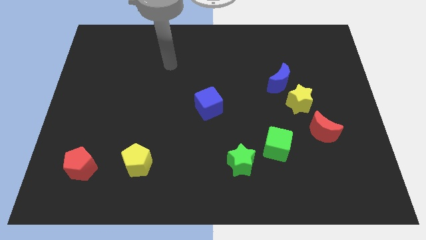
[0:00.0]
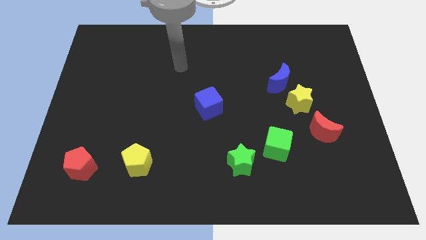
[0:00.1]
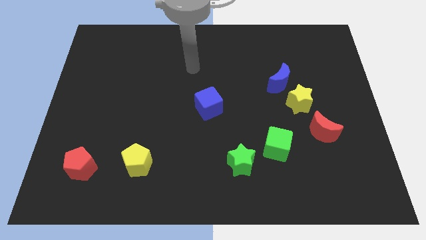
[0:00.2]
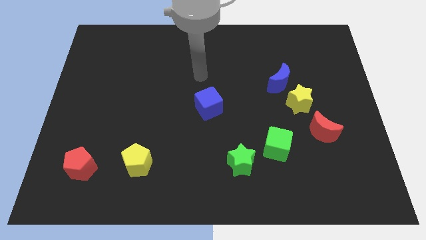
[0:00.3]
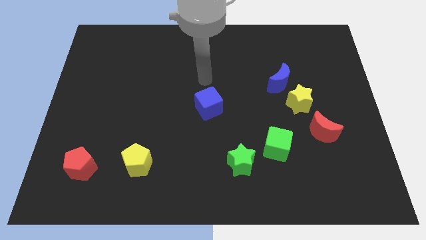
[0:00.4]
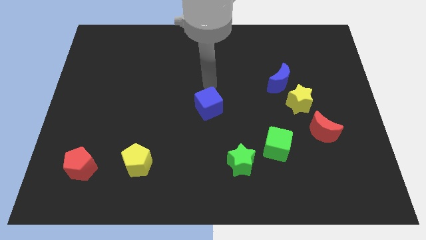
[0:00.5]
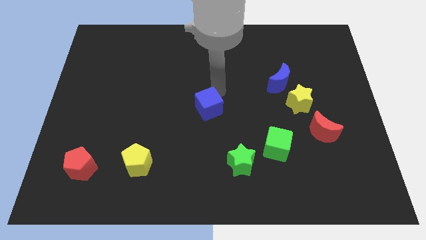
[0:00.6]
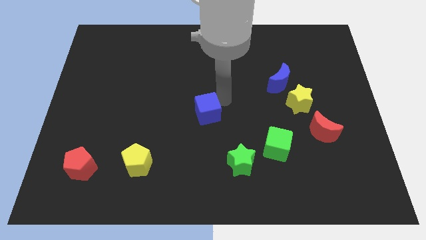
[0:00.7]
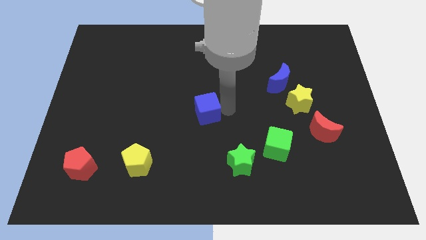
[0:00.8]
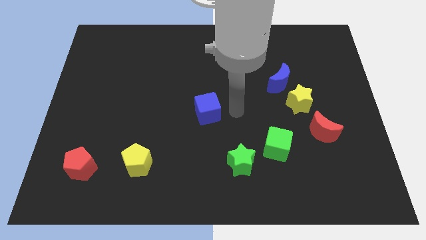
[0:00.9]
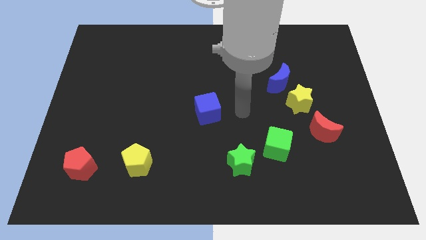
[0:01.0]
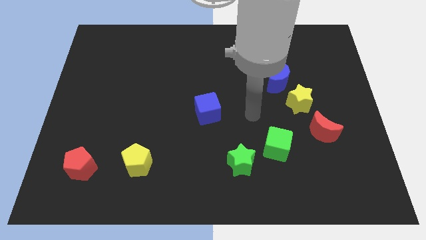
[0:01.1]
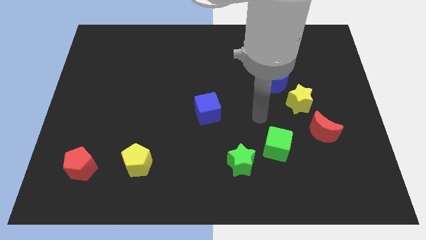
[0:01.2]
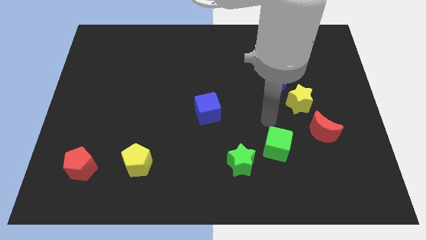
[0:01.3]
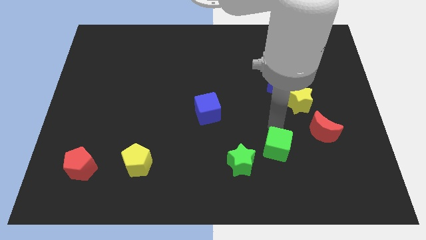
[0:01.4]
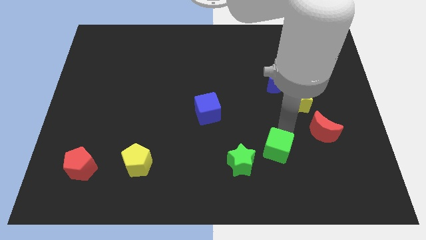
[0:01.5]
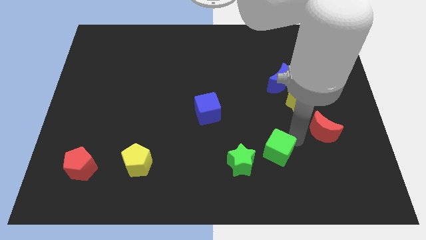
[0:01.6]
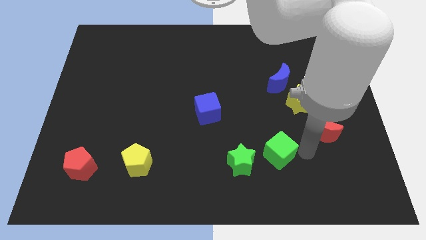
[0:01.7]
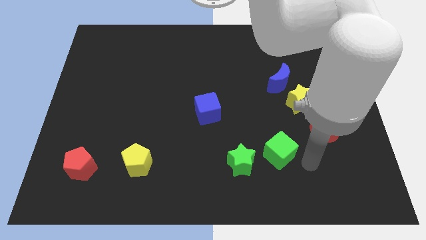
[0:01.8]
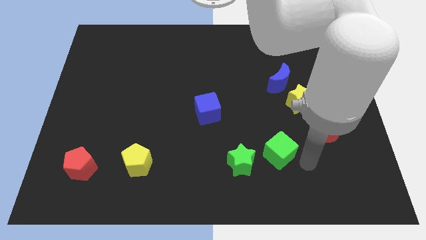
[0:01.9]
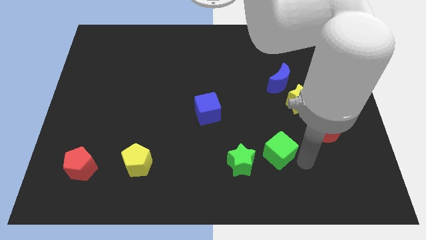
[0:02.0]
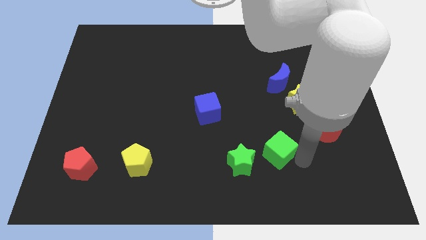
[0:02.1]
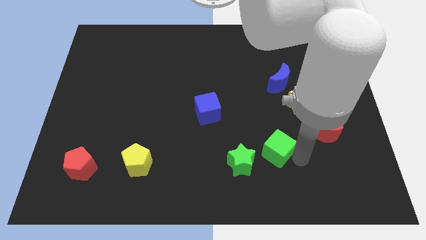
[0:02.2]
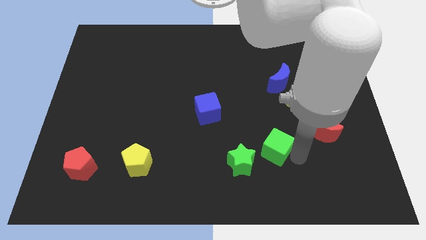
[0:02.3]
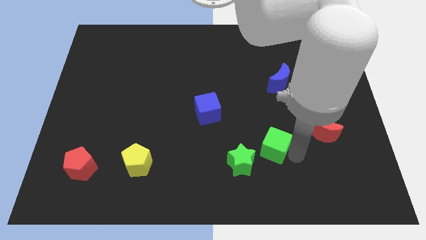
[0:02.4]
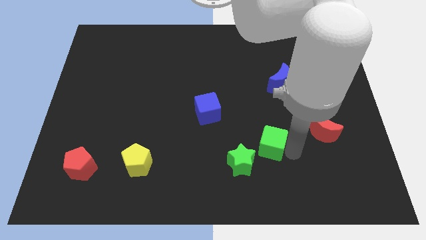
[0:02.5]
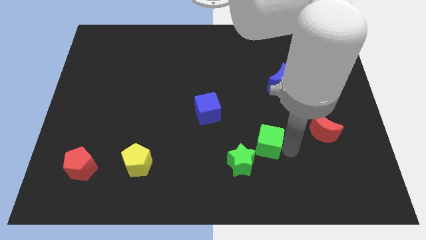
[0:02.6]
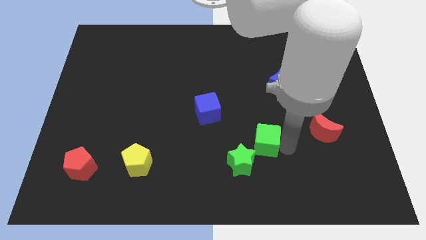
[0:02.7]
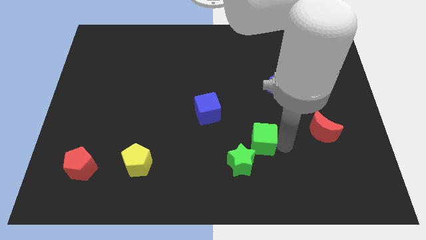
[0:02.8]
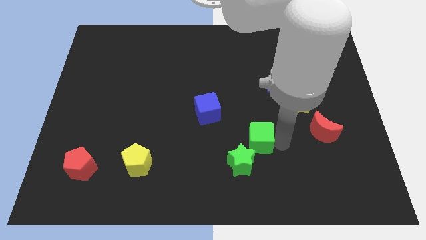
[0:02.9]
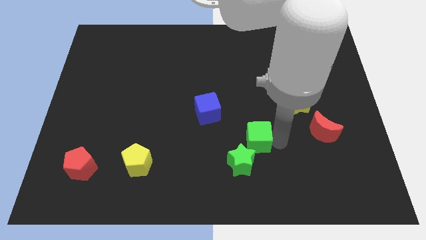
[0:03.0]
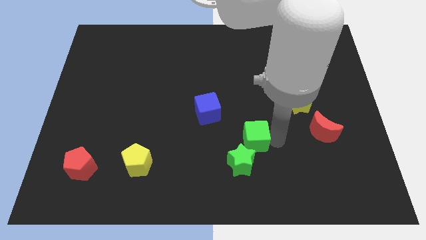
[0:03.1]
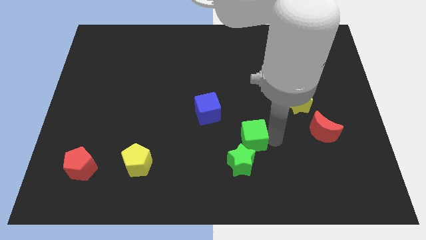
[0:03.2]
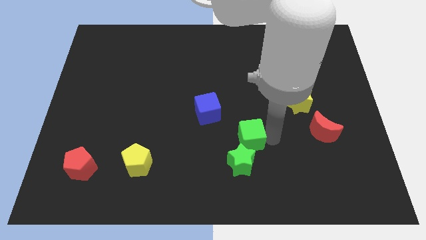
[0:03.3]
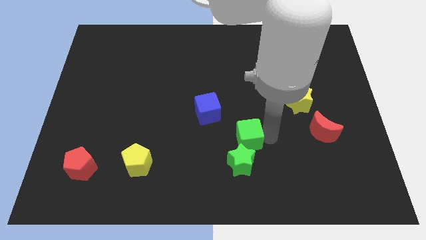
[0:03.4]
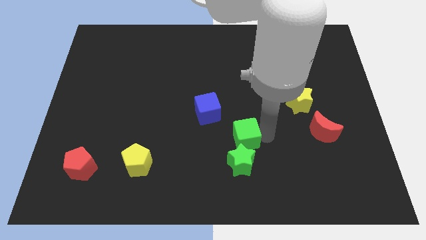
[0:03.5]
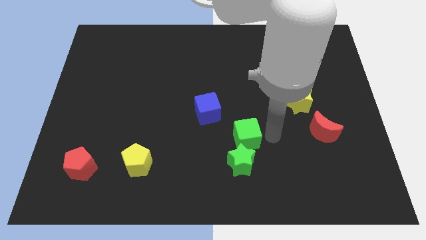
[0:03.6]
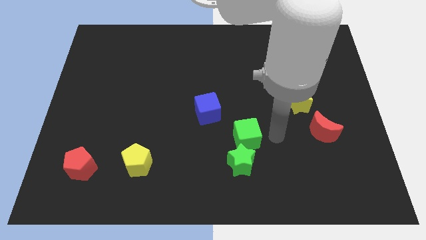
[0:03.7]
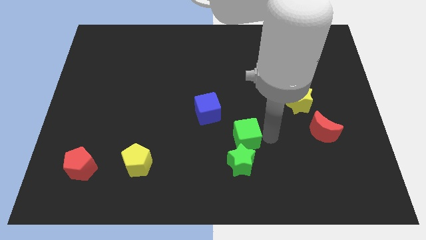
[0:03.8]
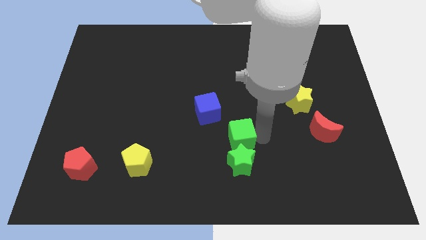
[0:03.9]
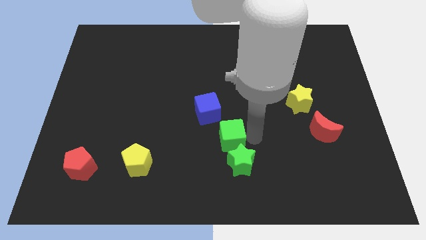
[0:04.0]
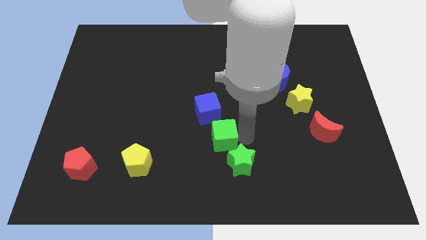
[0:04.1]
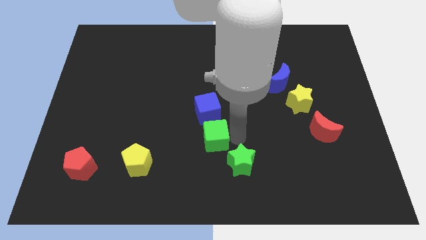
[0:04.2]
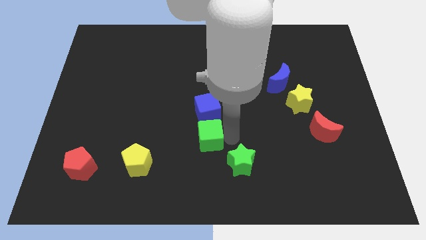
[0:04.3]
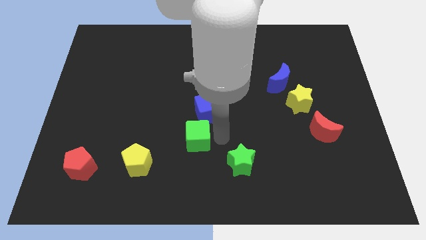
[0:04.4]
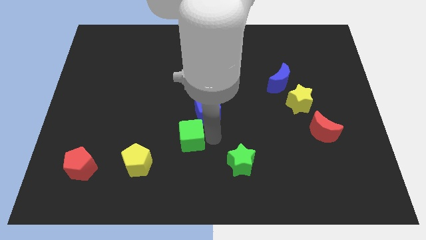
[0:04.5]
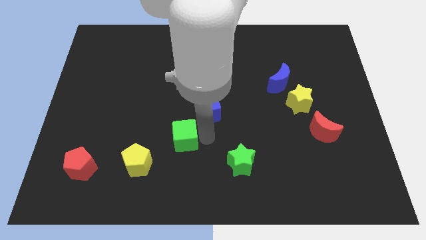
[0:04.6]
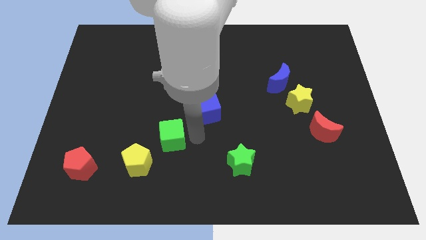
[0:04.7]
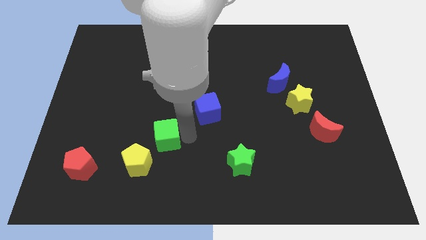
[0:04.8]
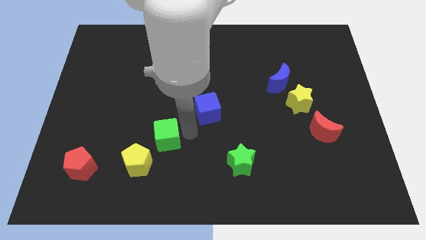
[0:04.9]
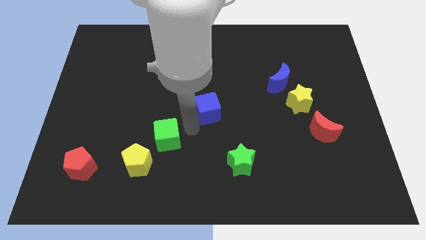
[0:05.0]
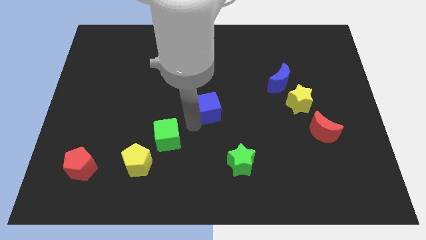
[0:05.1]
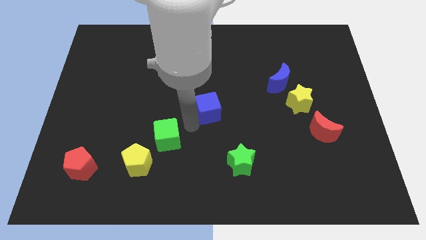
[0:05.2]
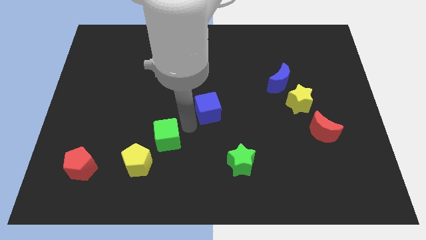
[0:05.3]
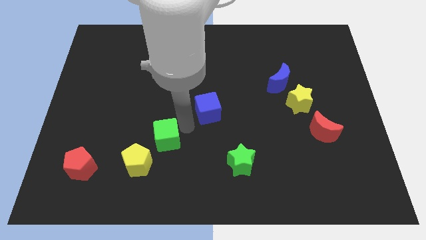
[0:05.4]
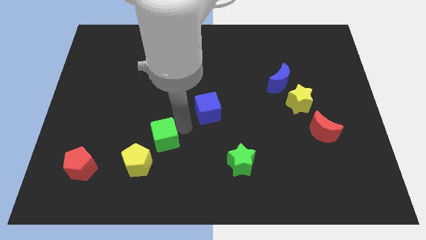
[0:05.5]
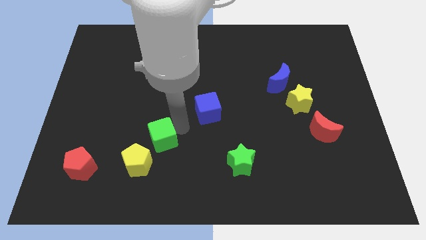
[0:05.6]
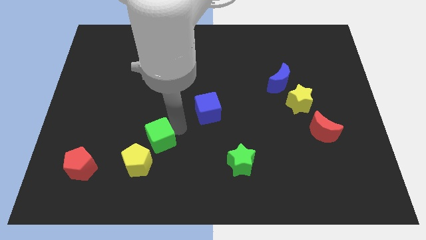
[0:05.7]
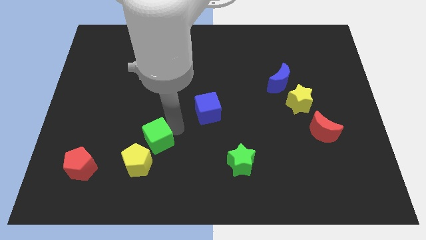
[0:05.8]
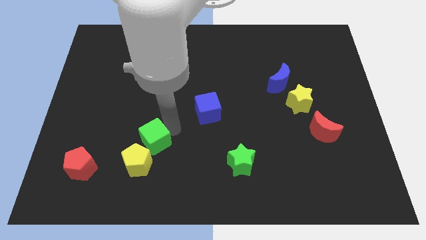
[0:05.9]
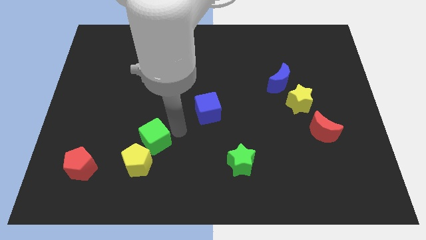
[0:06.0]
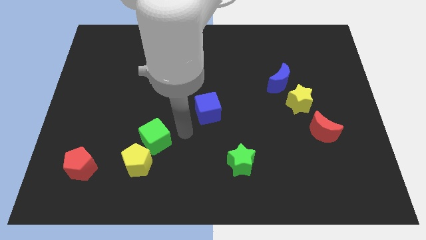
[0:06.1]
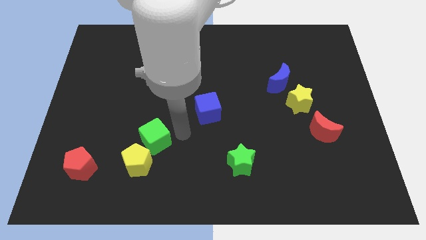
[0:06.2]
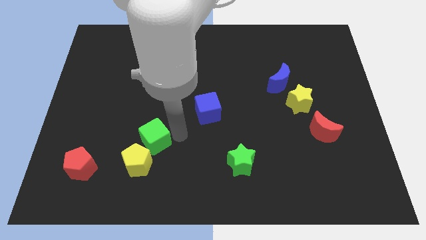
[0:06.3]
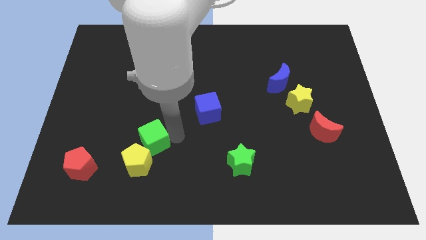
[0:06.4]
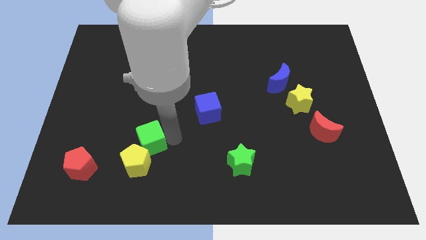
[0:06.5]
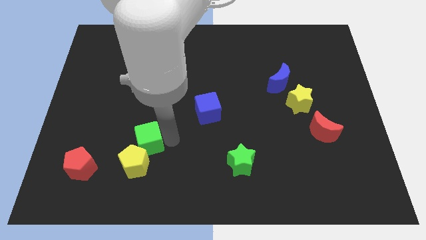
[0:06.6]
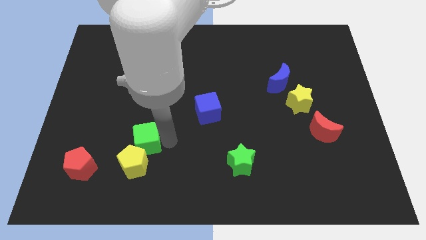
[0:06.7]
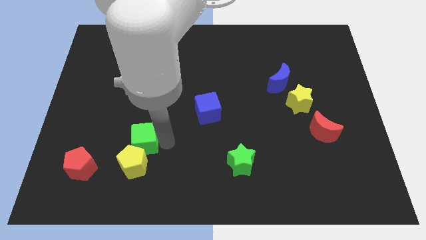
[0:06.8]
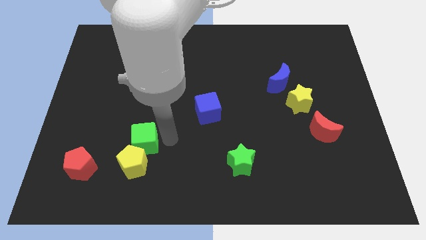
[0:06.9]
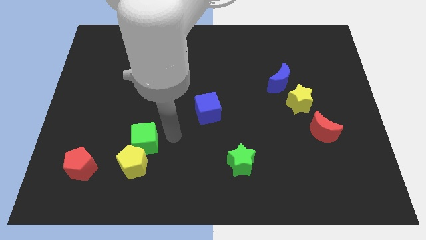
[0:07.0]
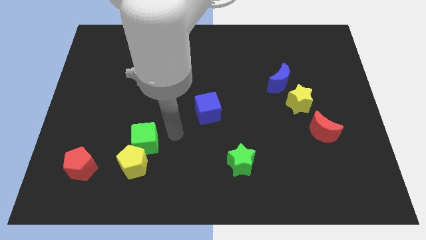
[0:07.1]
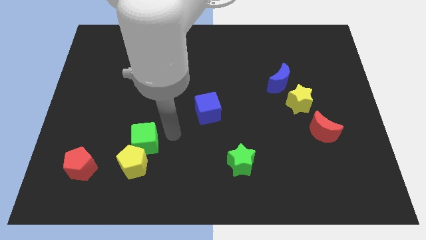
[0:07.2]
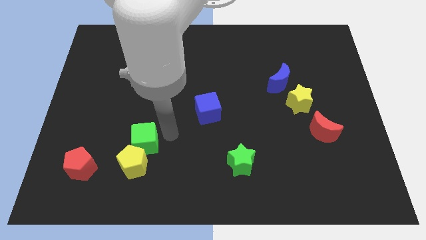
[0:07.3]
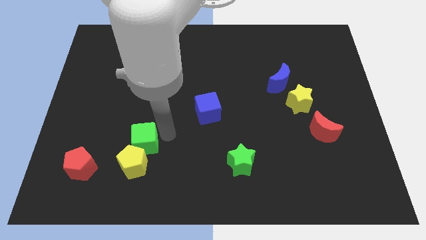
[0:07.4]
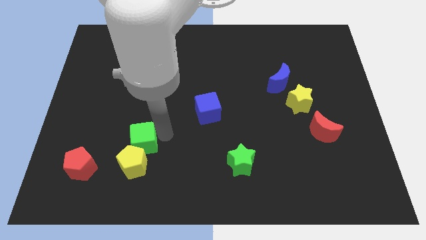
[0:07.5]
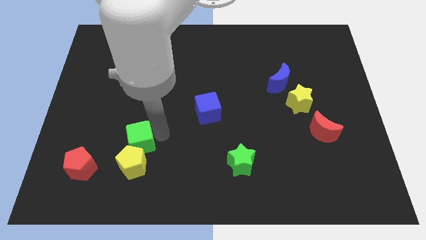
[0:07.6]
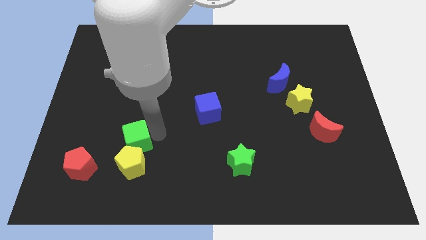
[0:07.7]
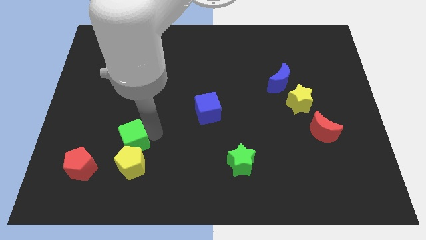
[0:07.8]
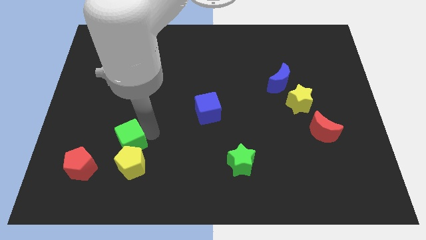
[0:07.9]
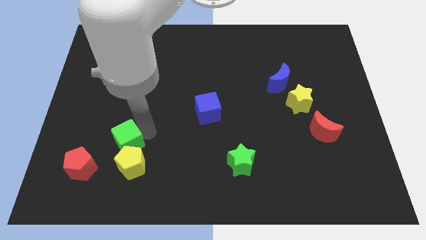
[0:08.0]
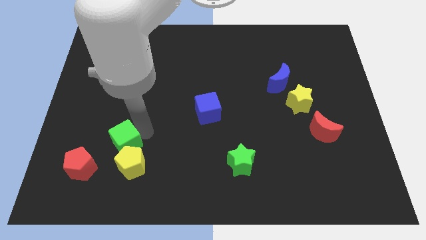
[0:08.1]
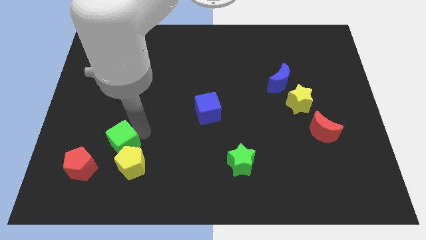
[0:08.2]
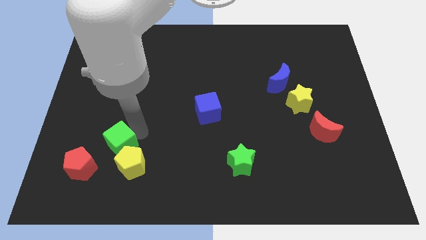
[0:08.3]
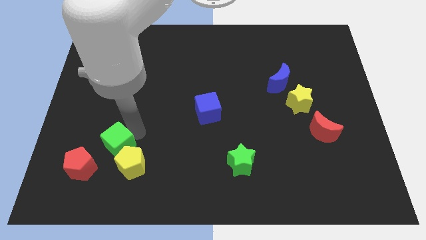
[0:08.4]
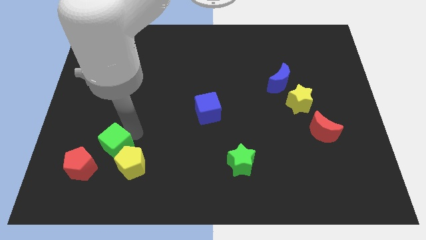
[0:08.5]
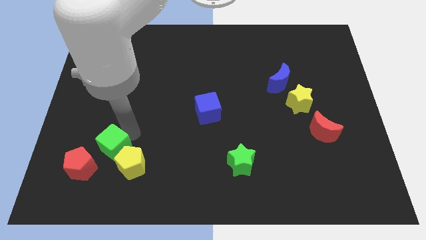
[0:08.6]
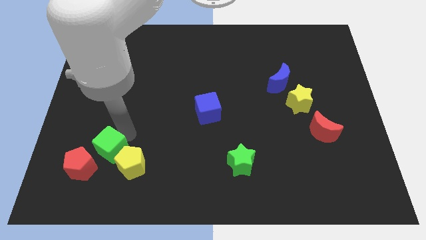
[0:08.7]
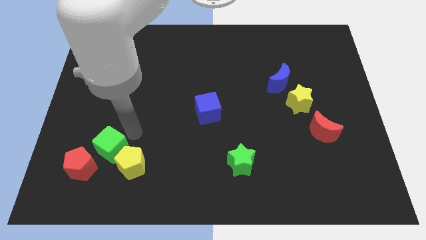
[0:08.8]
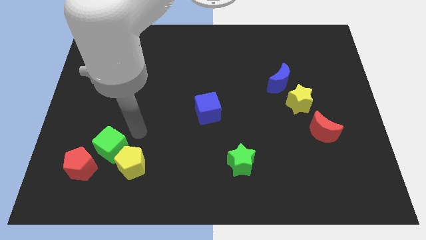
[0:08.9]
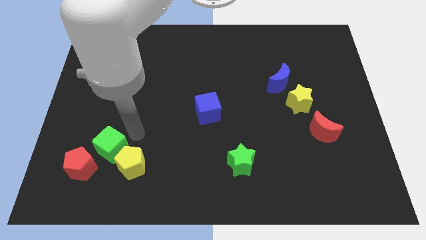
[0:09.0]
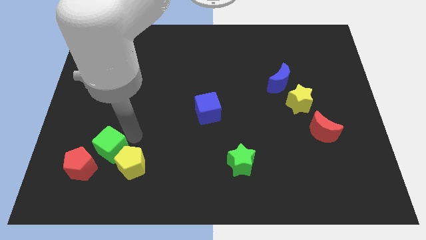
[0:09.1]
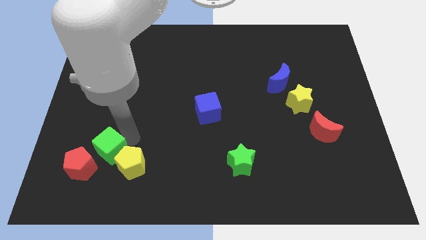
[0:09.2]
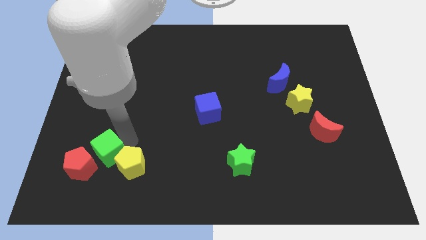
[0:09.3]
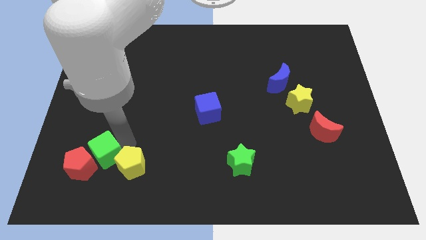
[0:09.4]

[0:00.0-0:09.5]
put the green cube towards the red pentagon
